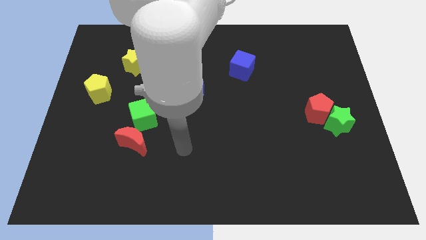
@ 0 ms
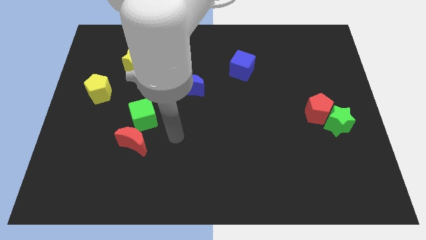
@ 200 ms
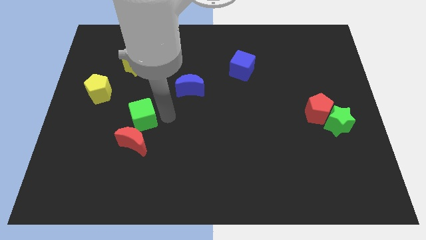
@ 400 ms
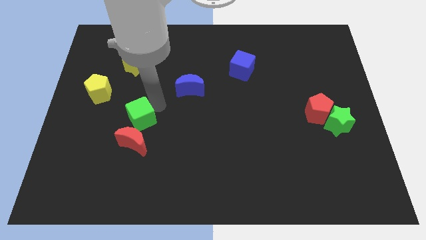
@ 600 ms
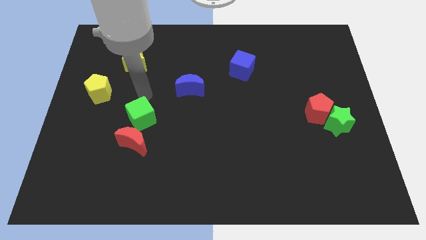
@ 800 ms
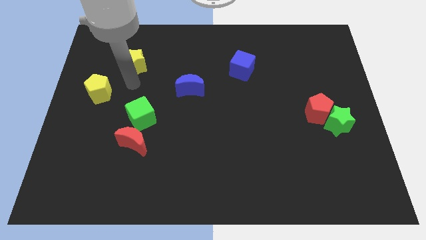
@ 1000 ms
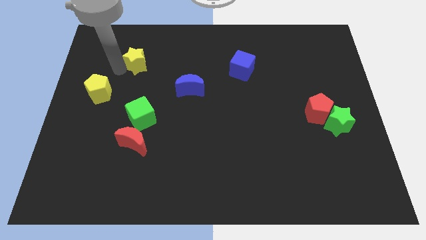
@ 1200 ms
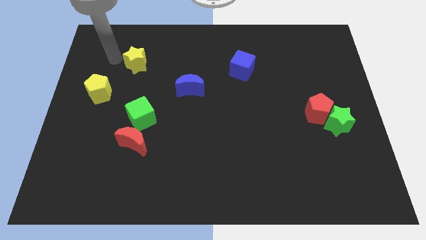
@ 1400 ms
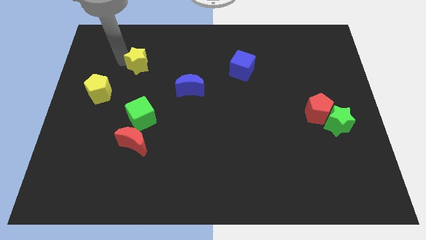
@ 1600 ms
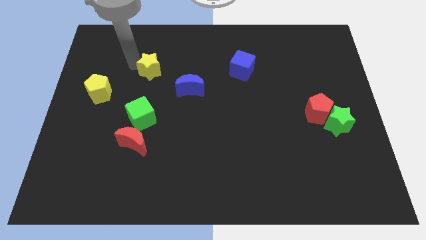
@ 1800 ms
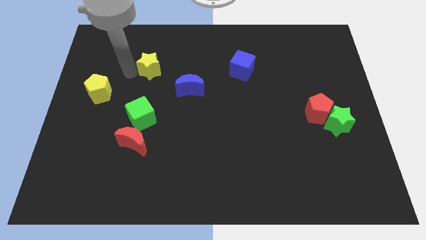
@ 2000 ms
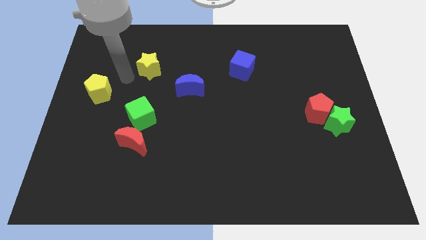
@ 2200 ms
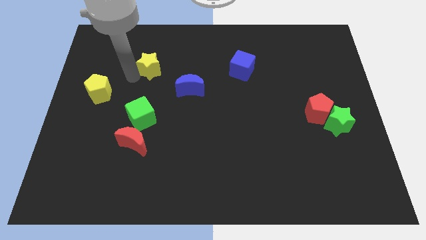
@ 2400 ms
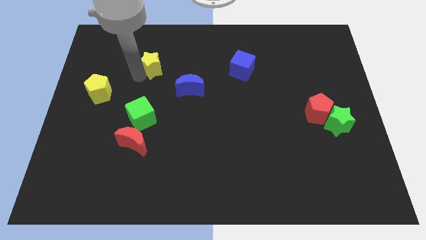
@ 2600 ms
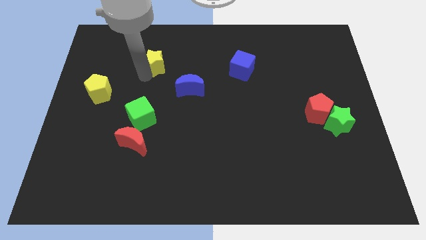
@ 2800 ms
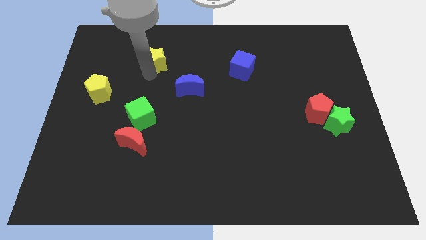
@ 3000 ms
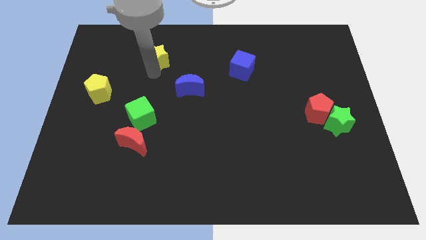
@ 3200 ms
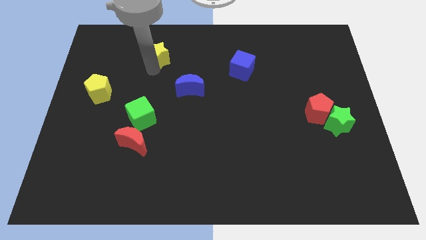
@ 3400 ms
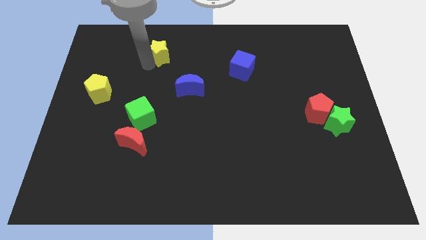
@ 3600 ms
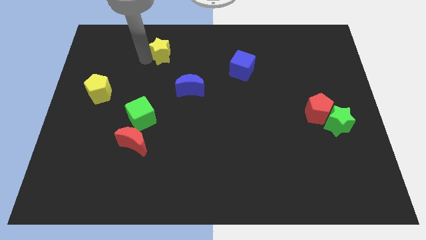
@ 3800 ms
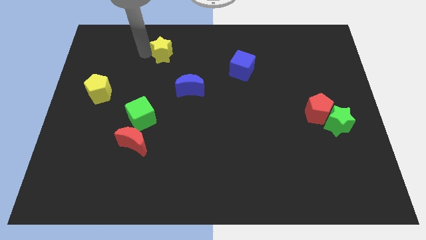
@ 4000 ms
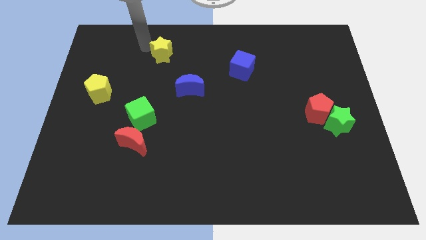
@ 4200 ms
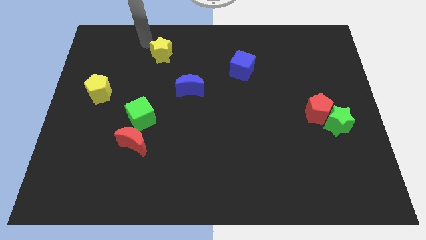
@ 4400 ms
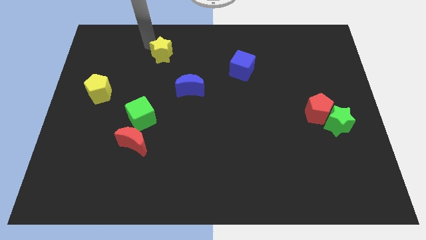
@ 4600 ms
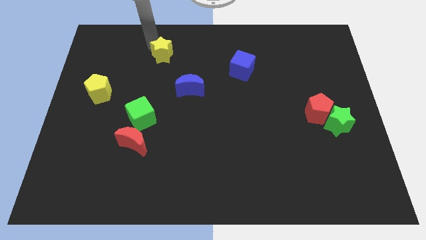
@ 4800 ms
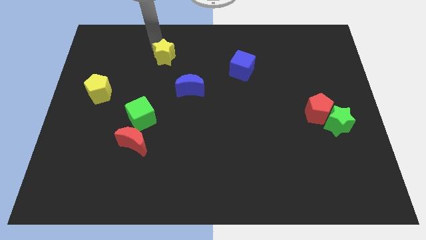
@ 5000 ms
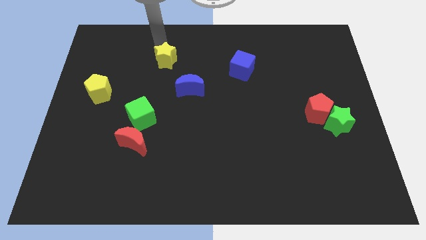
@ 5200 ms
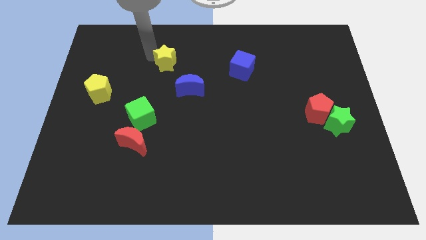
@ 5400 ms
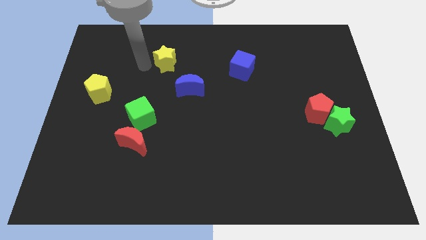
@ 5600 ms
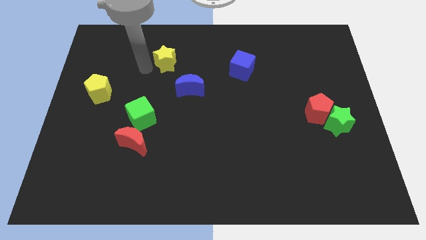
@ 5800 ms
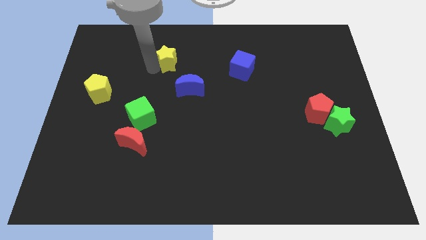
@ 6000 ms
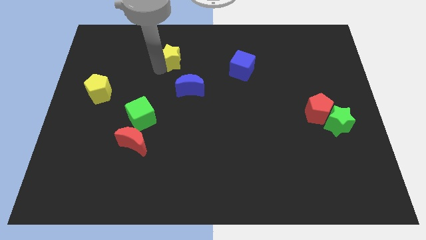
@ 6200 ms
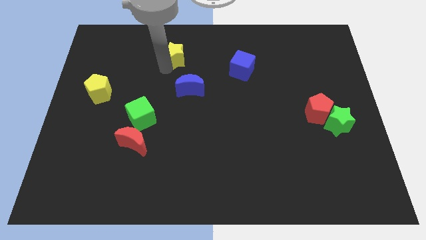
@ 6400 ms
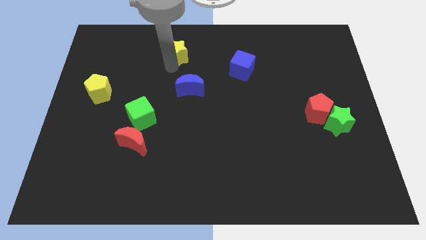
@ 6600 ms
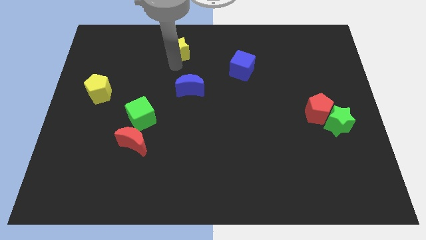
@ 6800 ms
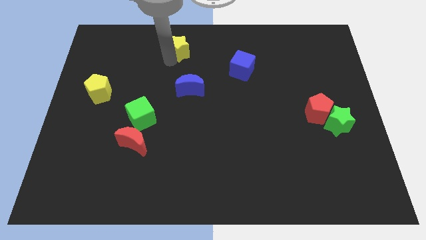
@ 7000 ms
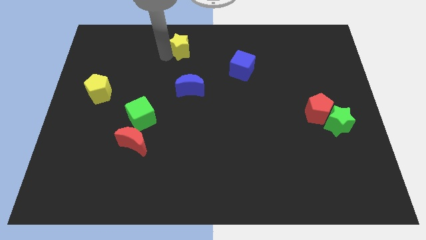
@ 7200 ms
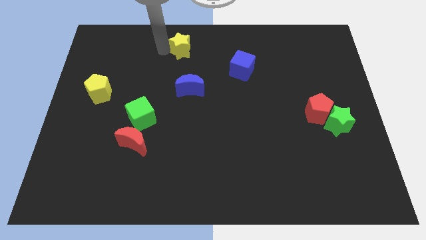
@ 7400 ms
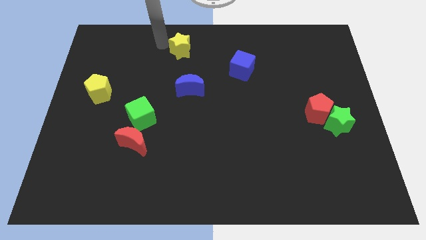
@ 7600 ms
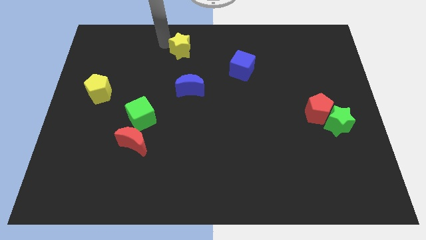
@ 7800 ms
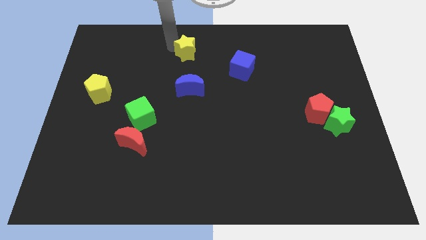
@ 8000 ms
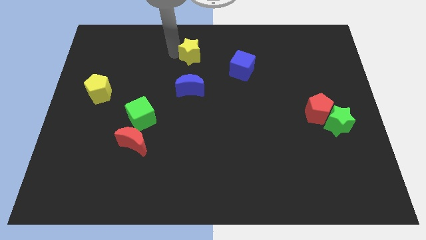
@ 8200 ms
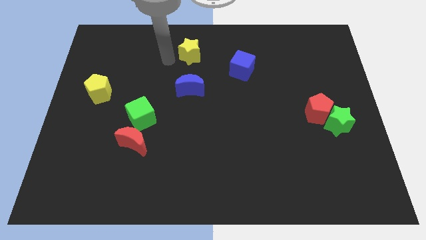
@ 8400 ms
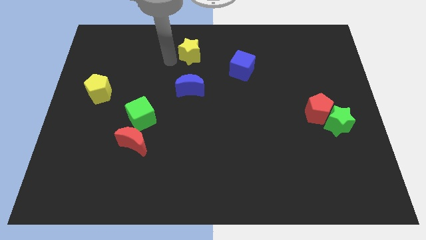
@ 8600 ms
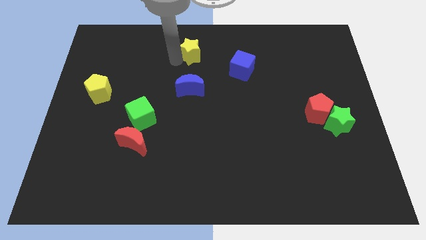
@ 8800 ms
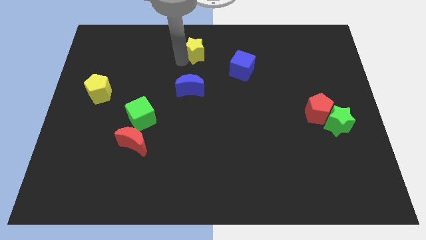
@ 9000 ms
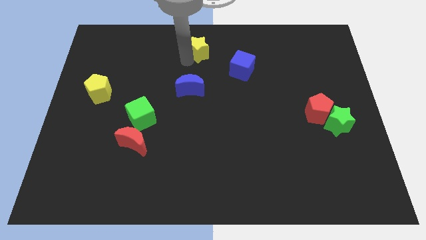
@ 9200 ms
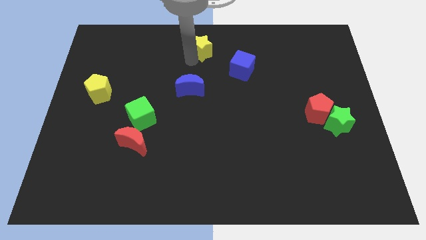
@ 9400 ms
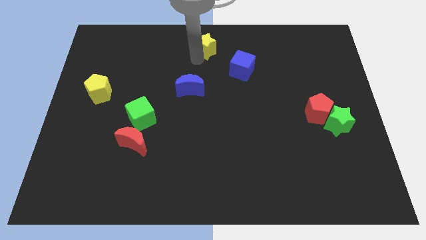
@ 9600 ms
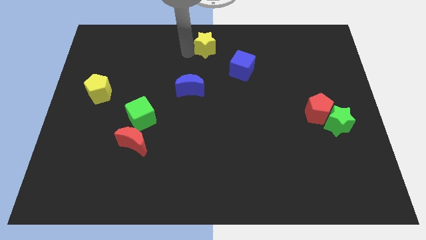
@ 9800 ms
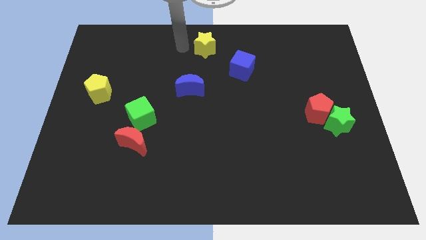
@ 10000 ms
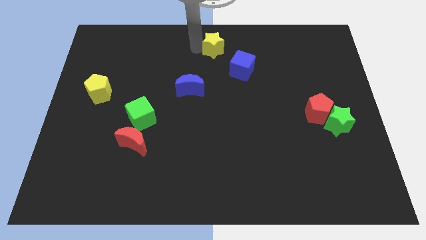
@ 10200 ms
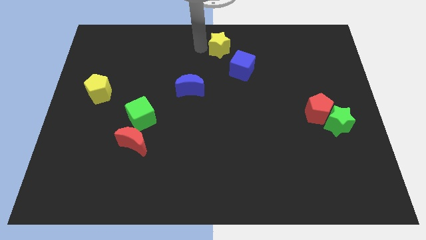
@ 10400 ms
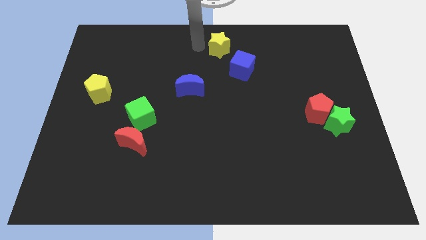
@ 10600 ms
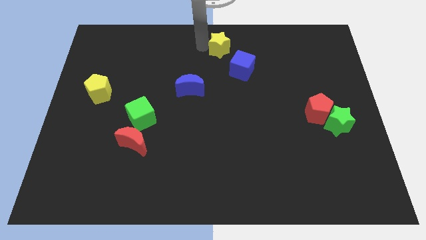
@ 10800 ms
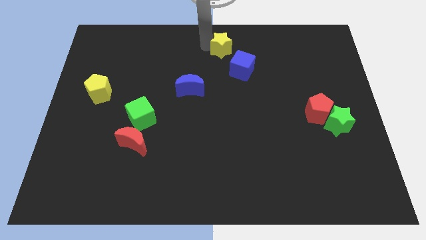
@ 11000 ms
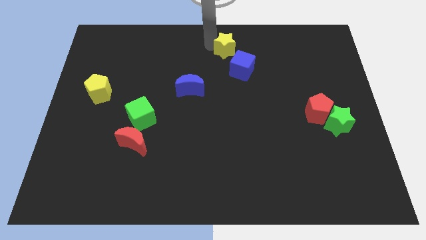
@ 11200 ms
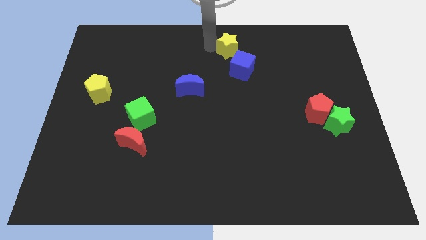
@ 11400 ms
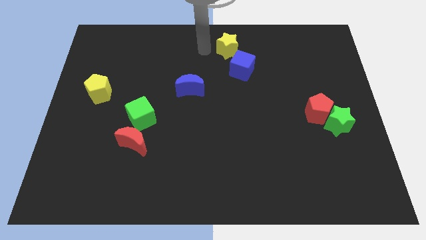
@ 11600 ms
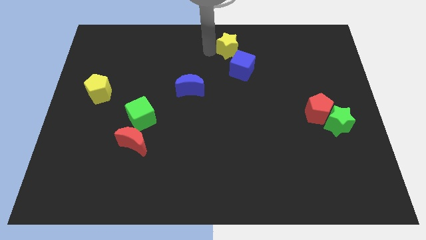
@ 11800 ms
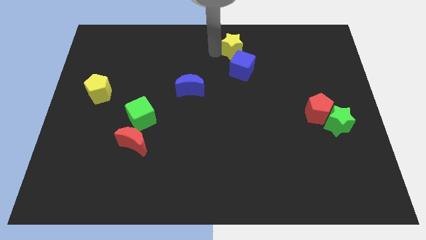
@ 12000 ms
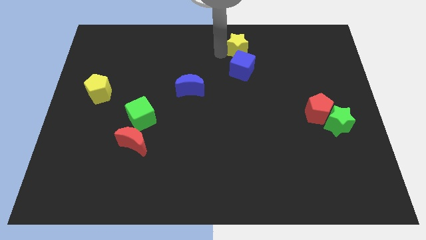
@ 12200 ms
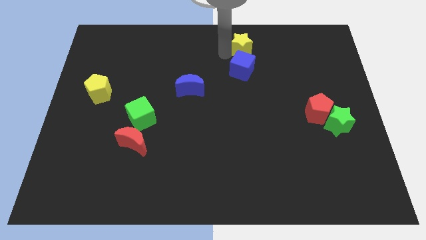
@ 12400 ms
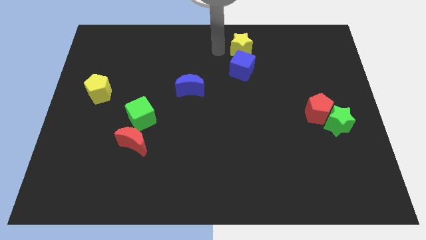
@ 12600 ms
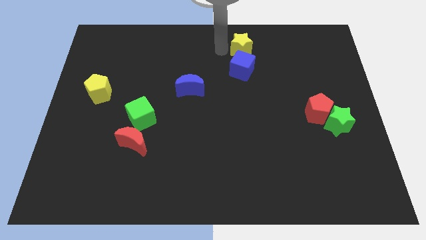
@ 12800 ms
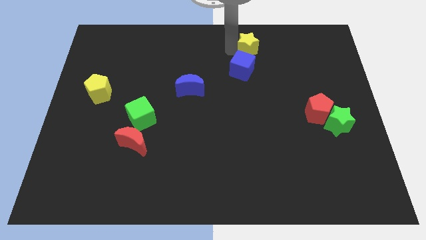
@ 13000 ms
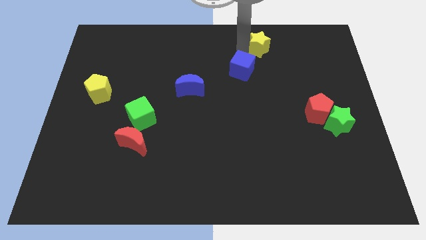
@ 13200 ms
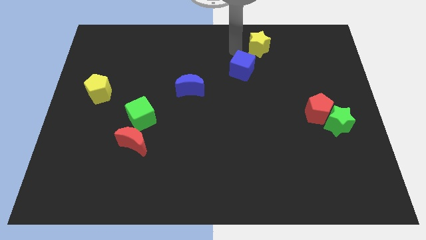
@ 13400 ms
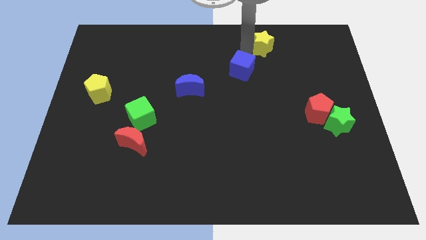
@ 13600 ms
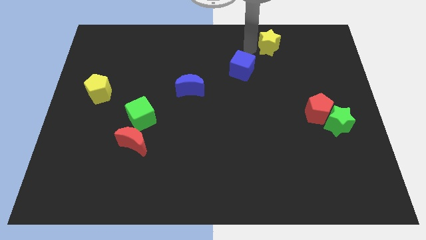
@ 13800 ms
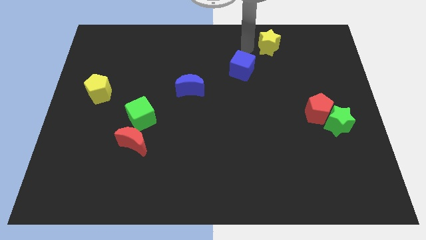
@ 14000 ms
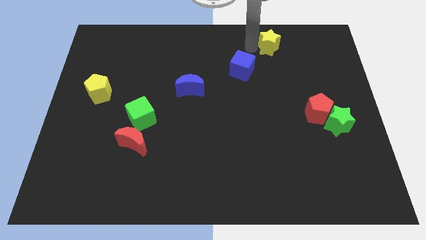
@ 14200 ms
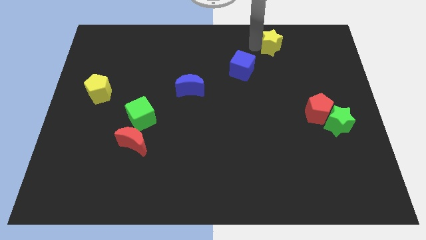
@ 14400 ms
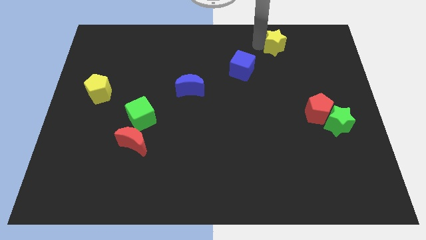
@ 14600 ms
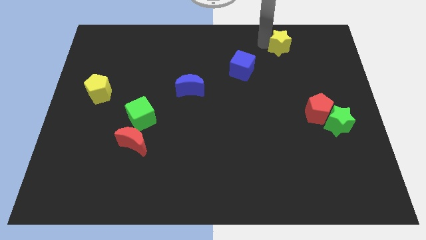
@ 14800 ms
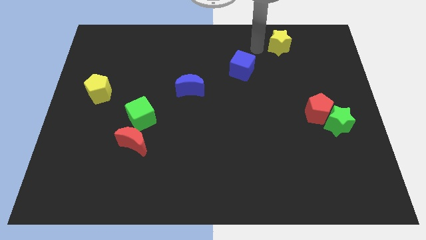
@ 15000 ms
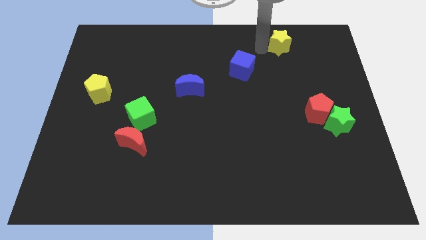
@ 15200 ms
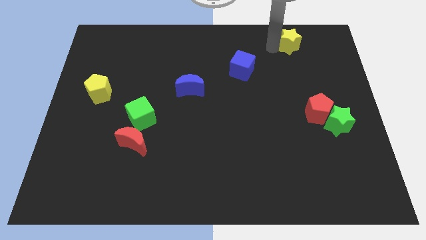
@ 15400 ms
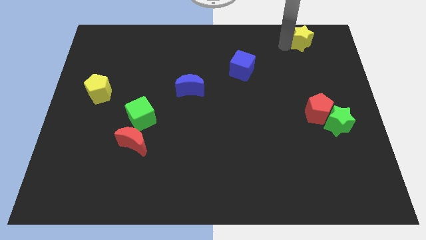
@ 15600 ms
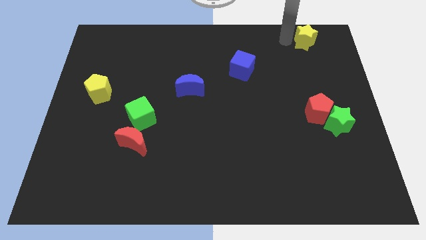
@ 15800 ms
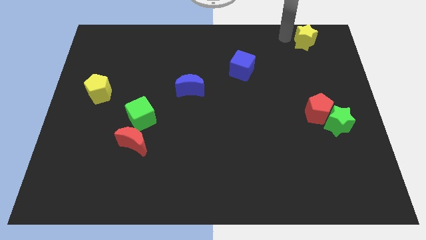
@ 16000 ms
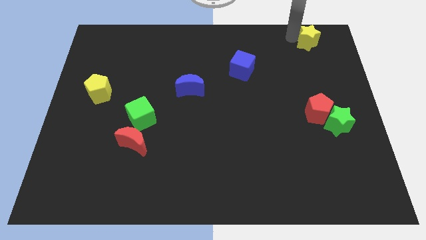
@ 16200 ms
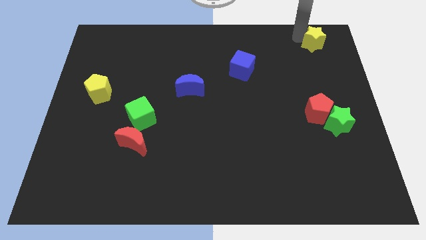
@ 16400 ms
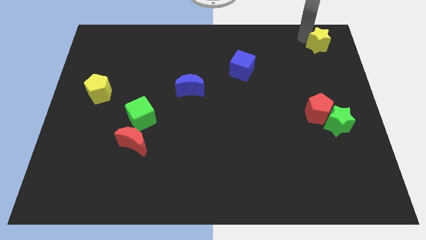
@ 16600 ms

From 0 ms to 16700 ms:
push the yellow star to the top right of the board
